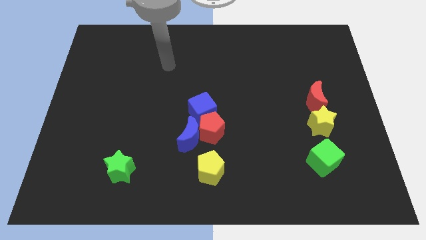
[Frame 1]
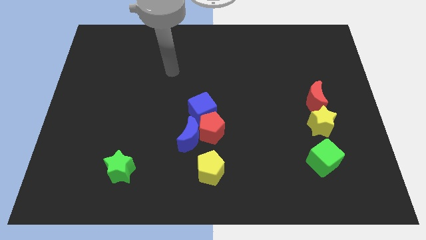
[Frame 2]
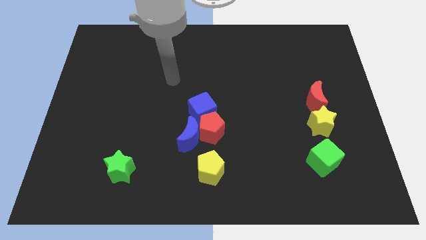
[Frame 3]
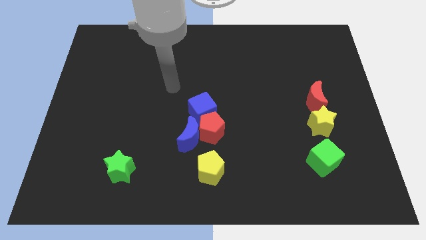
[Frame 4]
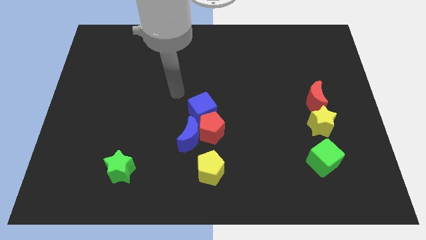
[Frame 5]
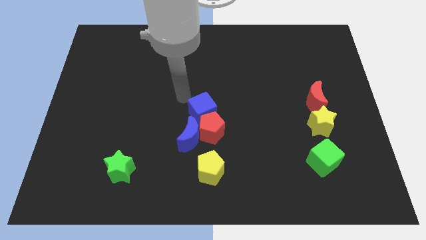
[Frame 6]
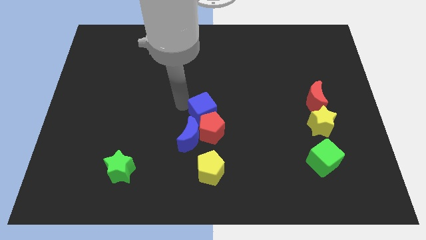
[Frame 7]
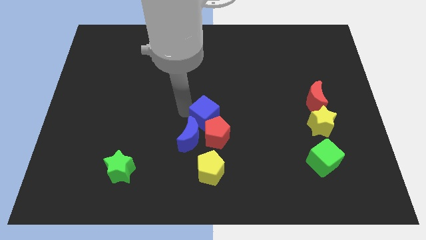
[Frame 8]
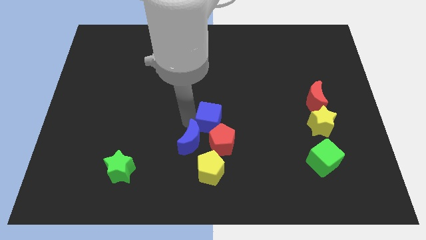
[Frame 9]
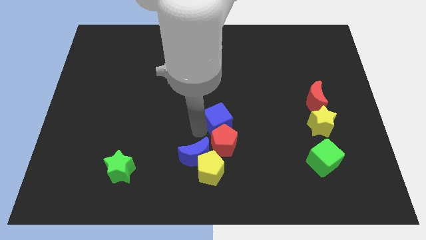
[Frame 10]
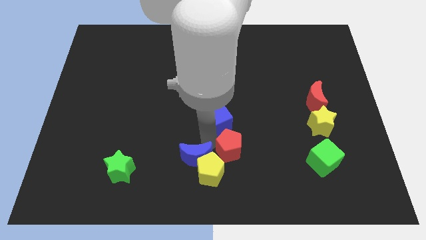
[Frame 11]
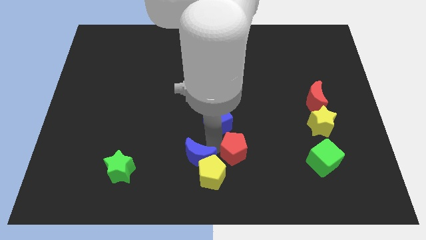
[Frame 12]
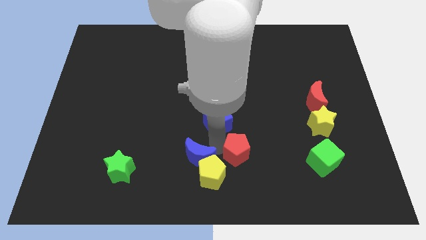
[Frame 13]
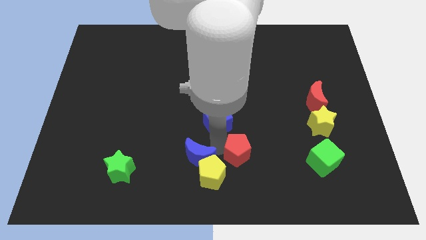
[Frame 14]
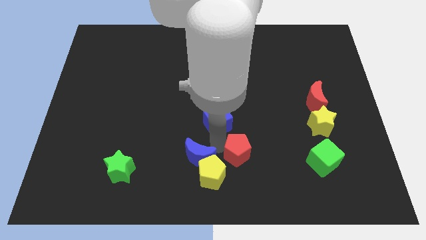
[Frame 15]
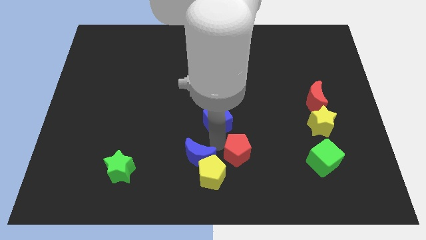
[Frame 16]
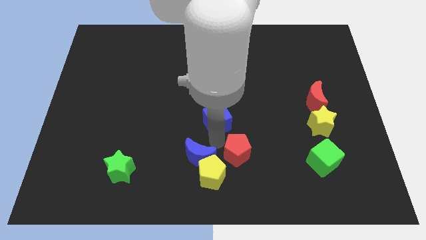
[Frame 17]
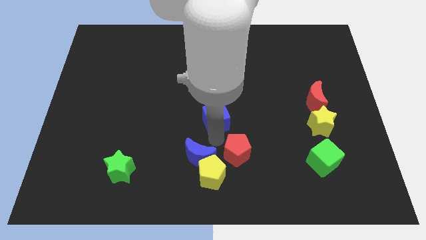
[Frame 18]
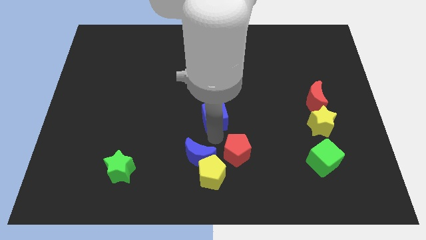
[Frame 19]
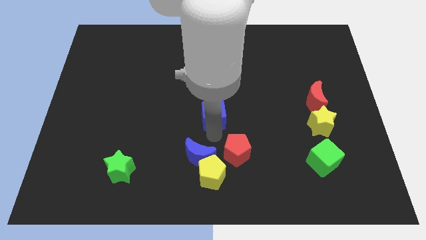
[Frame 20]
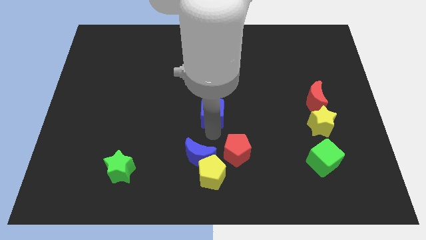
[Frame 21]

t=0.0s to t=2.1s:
pull the blue cube apart from the red pentagon and blue moon

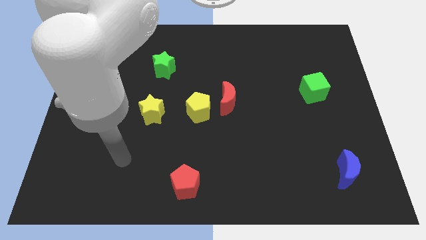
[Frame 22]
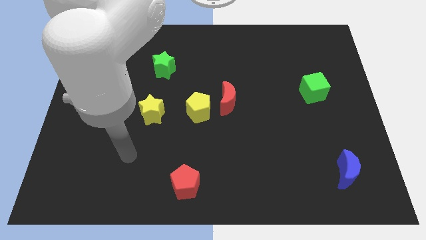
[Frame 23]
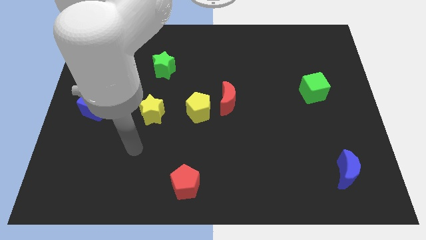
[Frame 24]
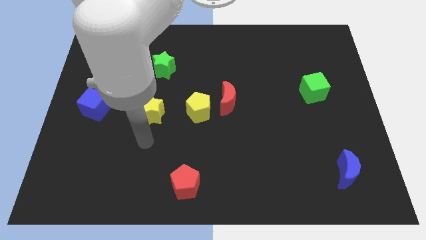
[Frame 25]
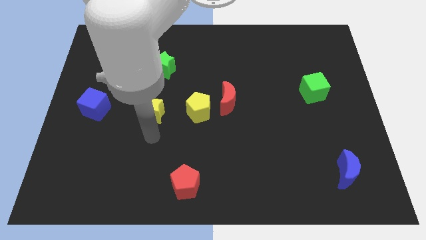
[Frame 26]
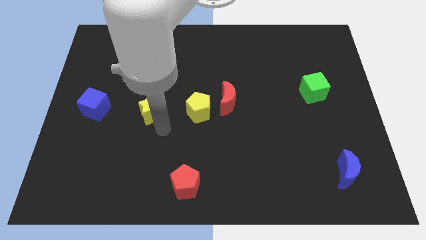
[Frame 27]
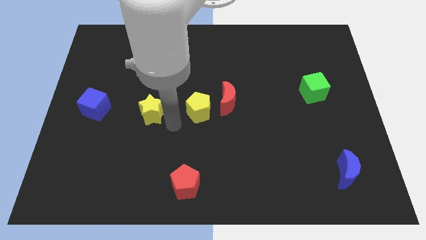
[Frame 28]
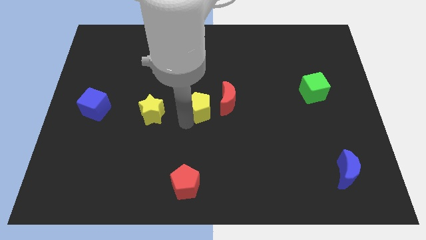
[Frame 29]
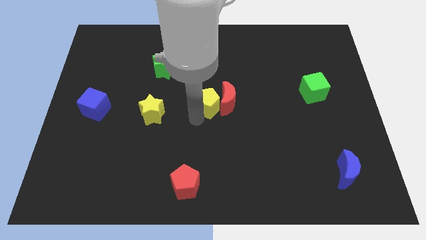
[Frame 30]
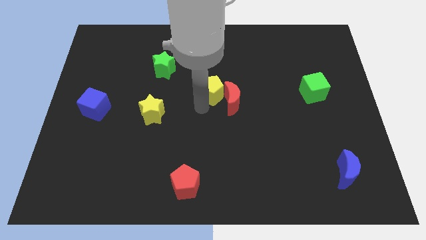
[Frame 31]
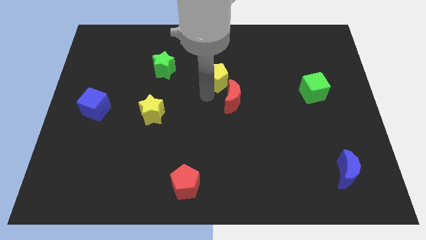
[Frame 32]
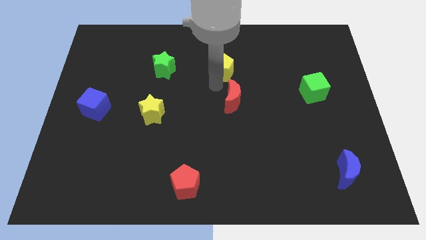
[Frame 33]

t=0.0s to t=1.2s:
move the red moon away from the yellow pentagon

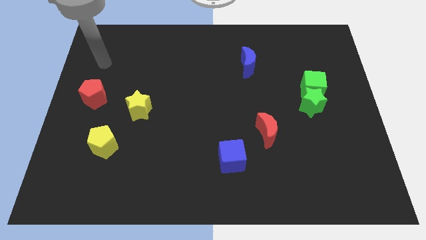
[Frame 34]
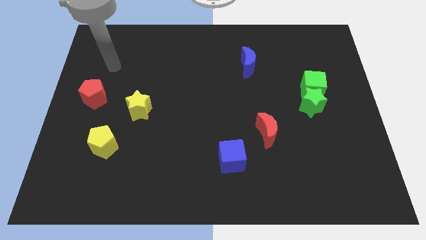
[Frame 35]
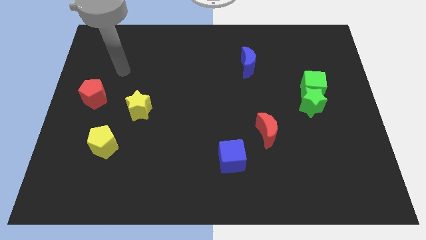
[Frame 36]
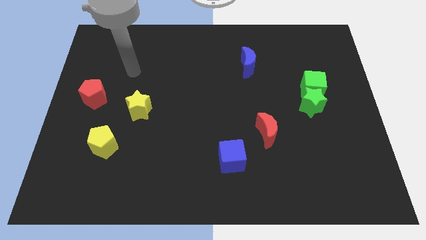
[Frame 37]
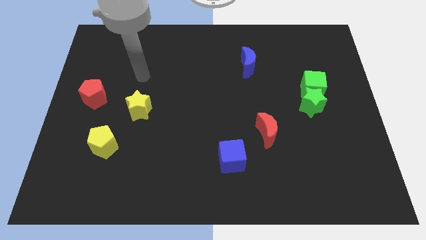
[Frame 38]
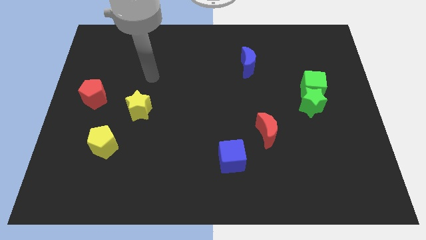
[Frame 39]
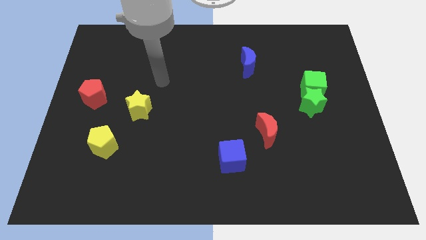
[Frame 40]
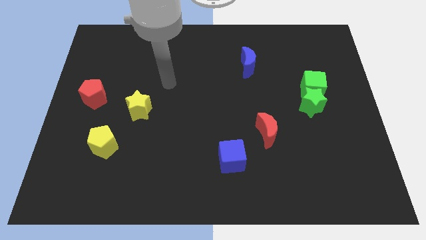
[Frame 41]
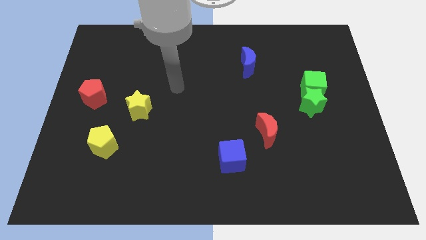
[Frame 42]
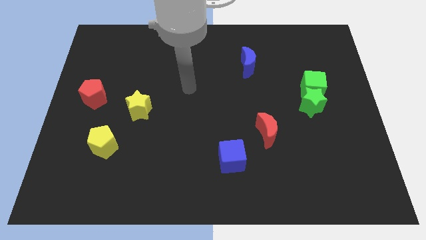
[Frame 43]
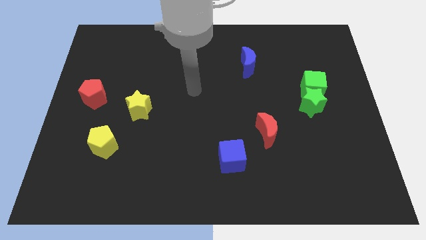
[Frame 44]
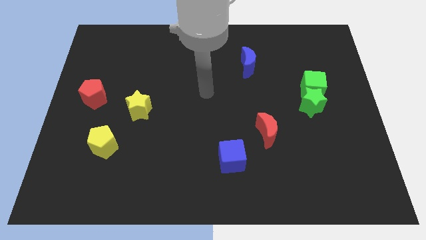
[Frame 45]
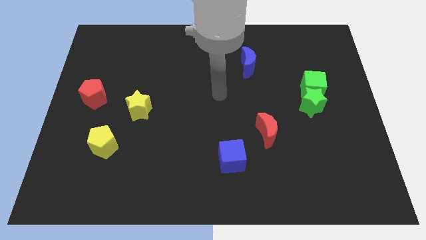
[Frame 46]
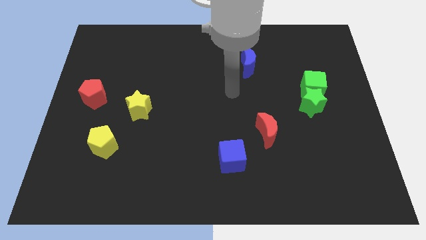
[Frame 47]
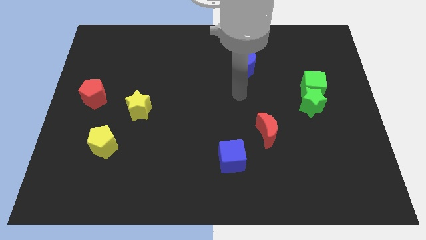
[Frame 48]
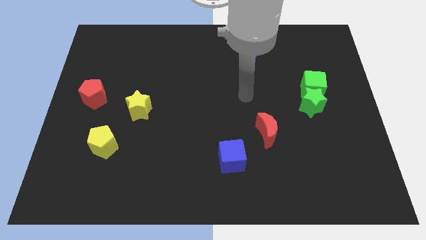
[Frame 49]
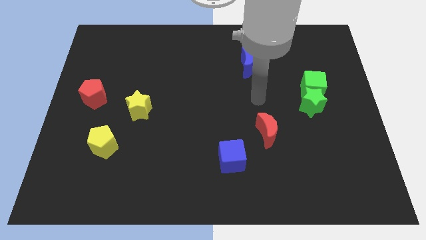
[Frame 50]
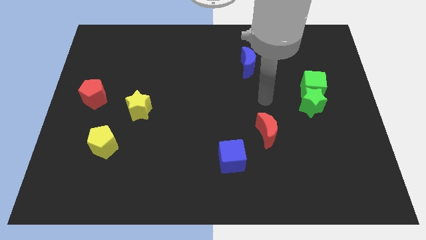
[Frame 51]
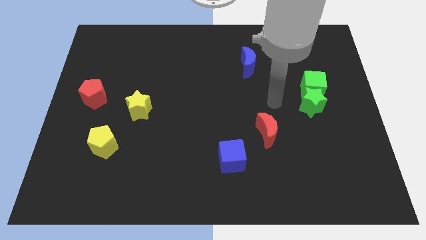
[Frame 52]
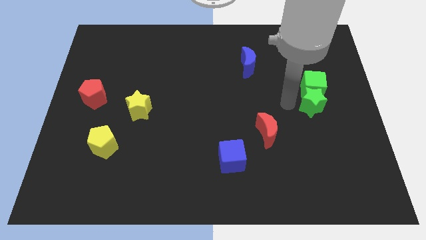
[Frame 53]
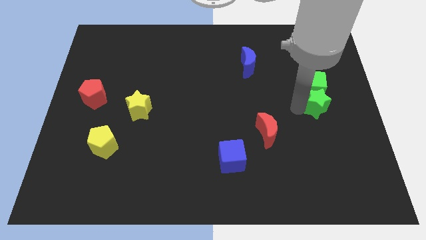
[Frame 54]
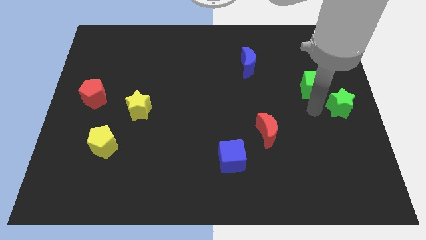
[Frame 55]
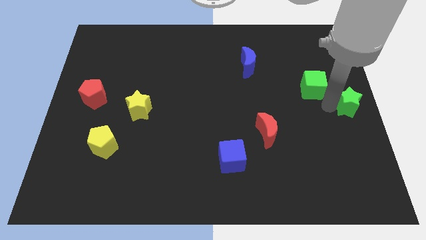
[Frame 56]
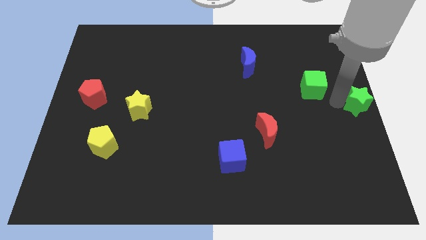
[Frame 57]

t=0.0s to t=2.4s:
pull the green cube apart from the green star

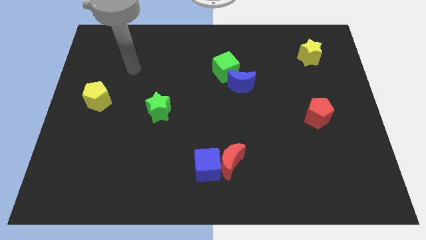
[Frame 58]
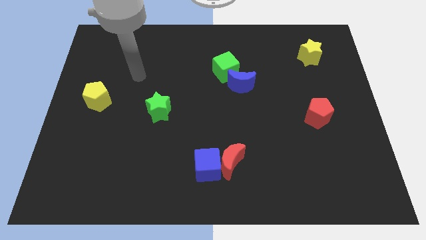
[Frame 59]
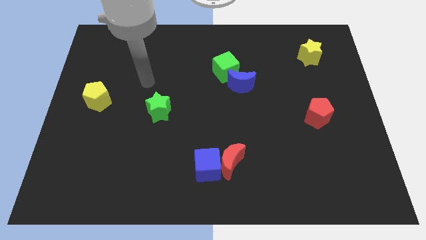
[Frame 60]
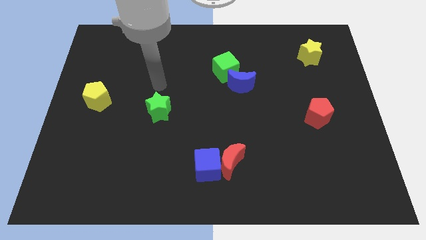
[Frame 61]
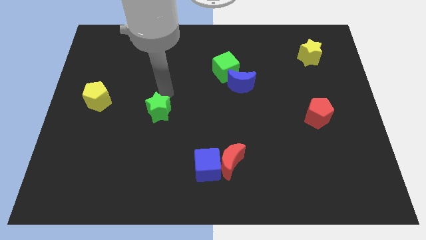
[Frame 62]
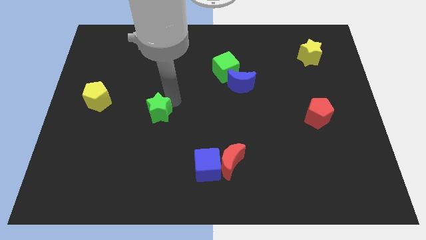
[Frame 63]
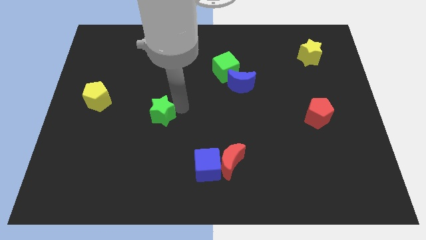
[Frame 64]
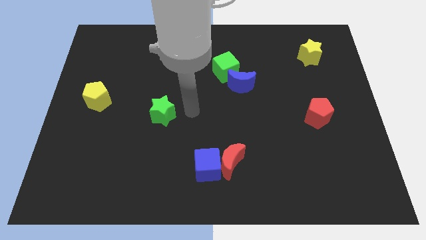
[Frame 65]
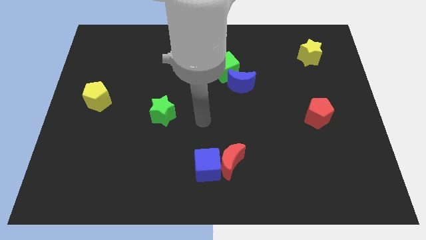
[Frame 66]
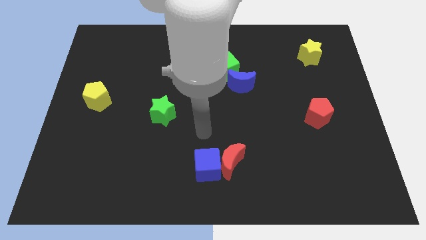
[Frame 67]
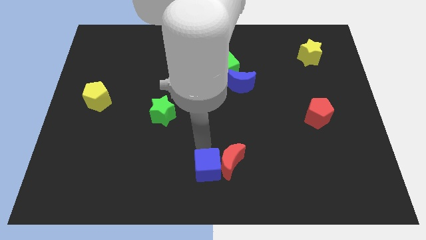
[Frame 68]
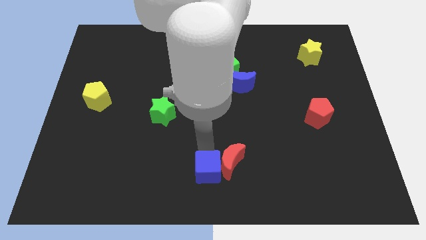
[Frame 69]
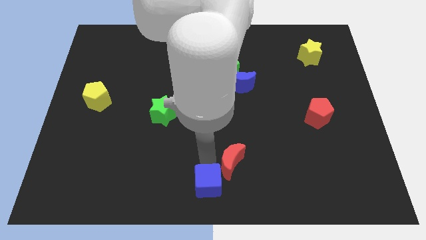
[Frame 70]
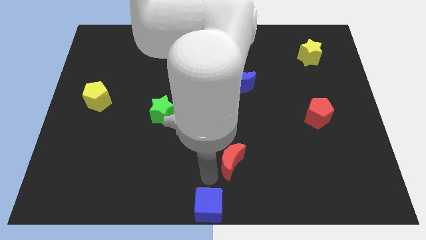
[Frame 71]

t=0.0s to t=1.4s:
move the red moon away from the blue cube

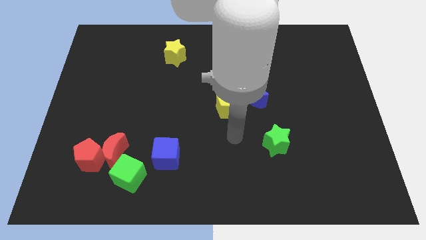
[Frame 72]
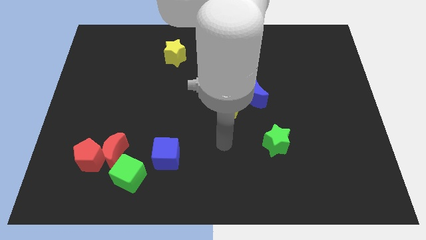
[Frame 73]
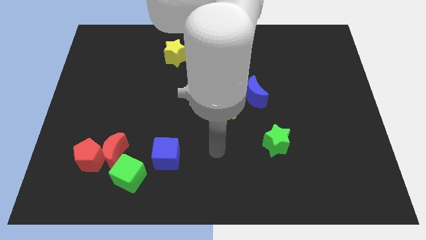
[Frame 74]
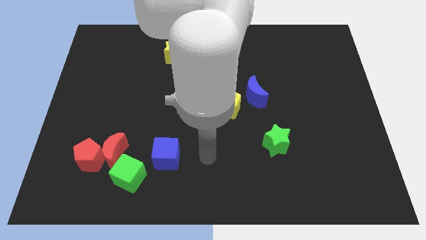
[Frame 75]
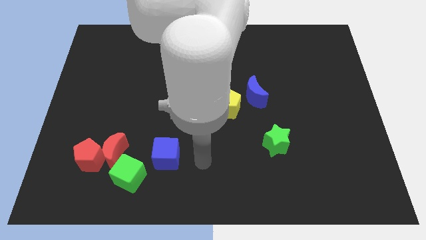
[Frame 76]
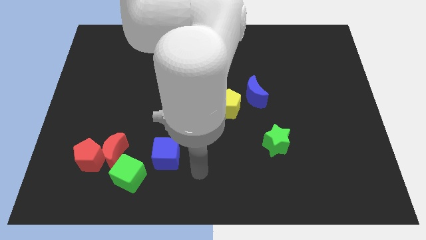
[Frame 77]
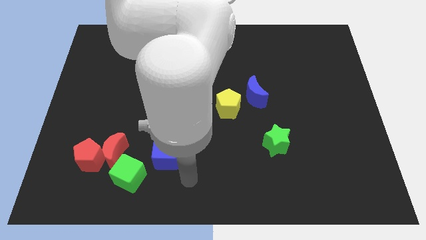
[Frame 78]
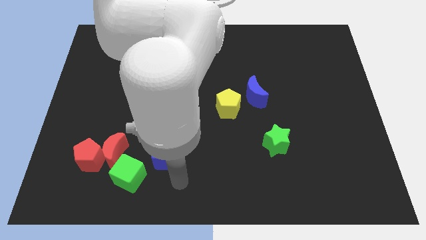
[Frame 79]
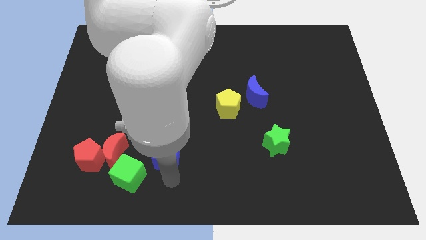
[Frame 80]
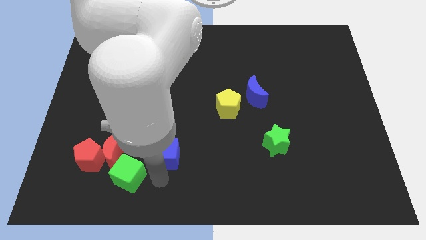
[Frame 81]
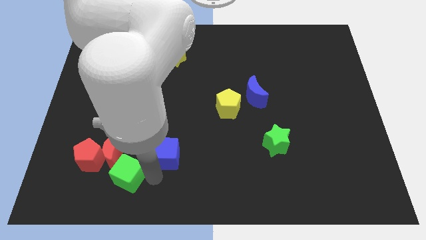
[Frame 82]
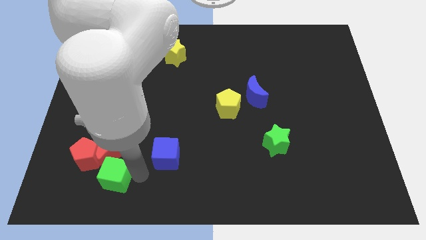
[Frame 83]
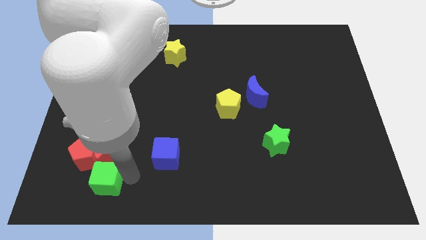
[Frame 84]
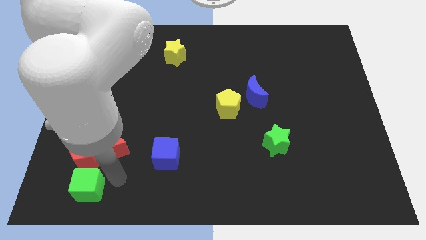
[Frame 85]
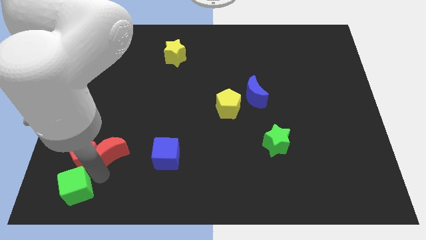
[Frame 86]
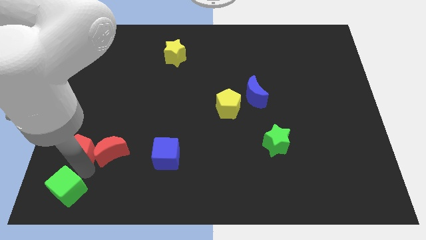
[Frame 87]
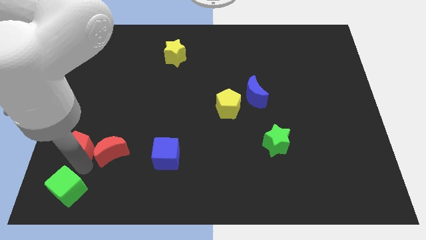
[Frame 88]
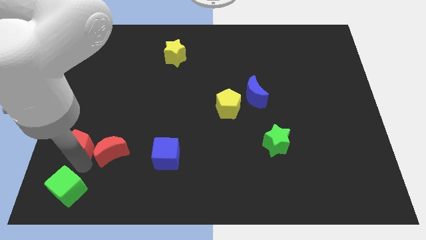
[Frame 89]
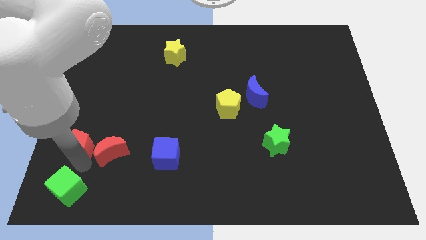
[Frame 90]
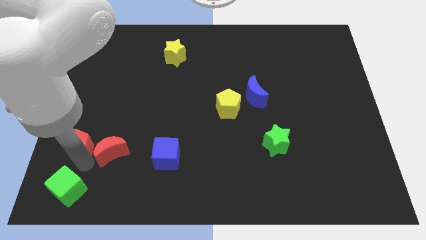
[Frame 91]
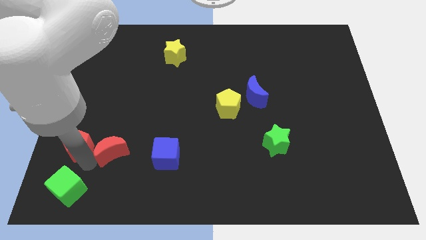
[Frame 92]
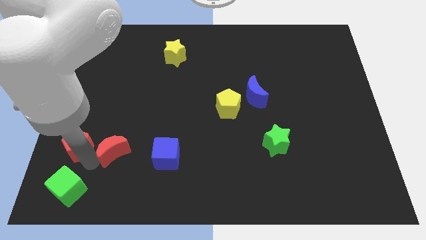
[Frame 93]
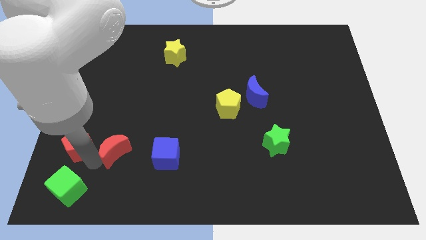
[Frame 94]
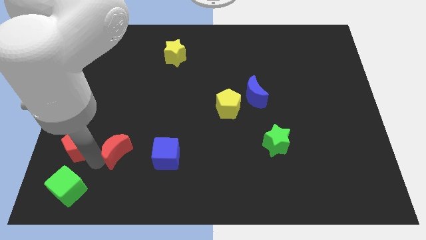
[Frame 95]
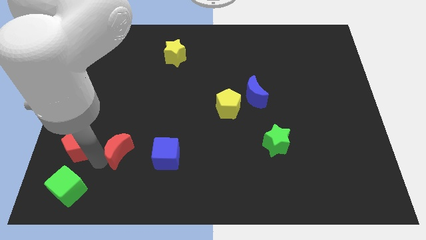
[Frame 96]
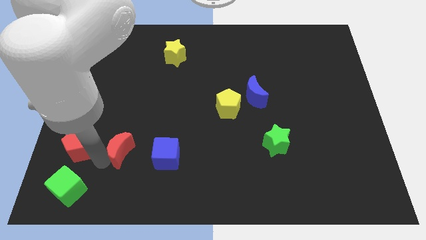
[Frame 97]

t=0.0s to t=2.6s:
separate the red moon from the red pentagon and green cube
